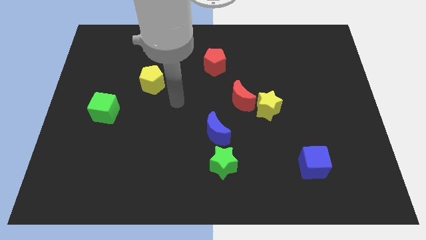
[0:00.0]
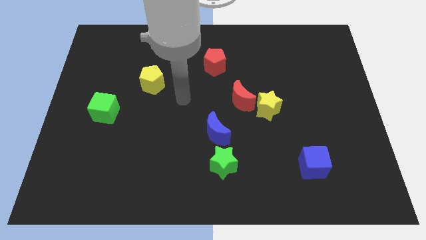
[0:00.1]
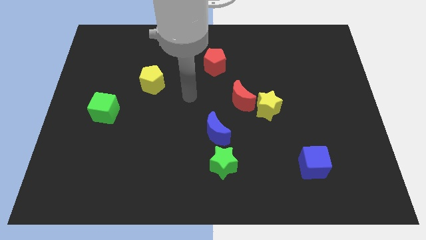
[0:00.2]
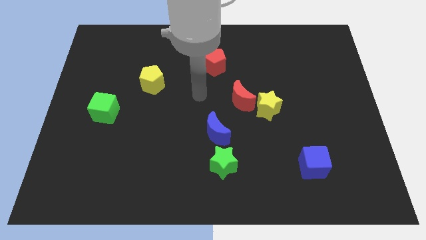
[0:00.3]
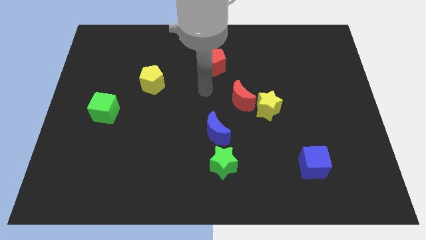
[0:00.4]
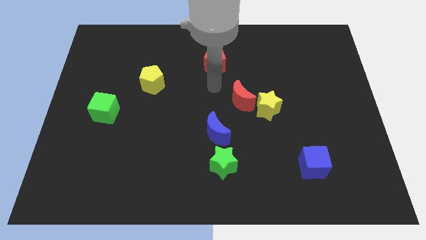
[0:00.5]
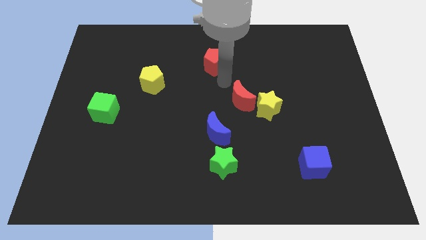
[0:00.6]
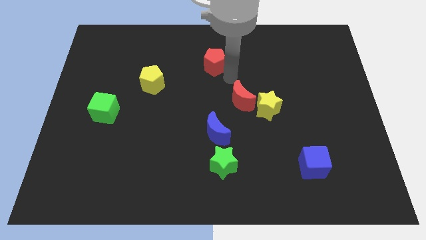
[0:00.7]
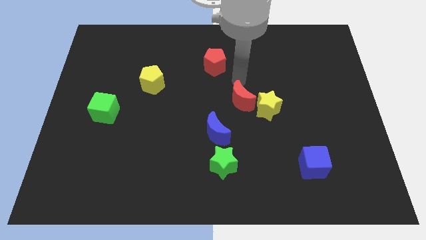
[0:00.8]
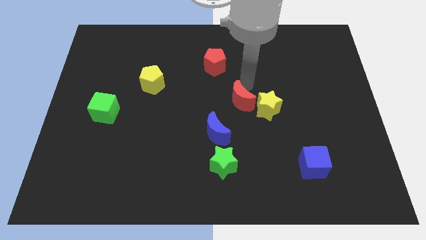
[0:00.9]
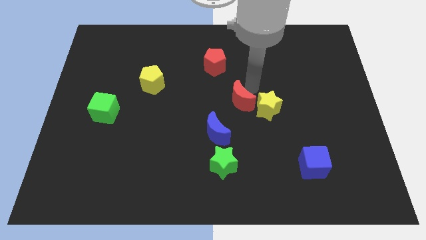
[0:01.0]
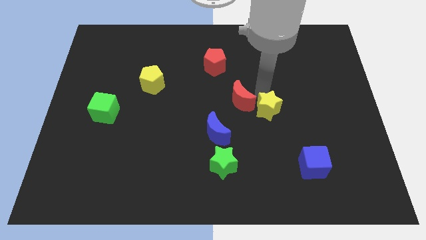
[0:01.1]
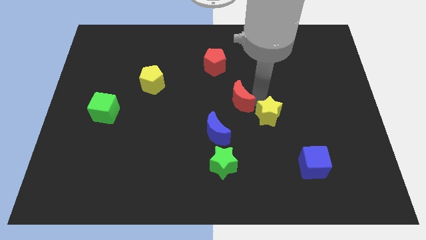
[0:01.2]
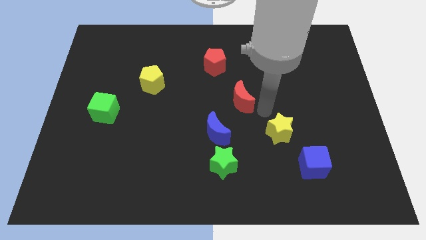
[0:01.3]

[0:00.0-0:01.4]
pull the red moon apart from the yellow star

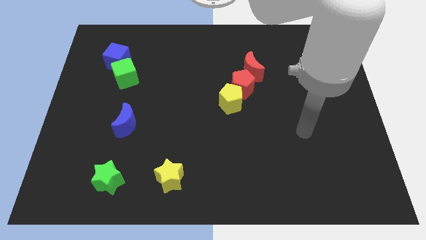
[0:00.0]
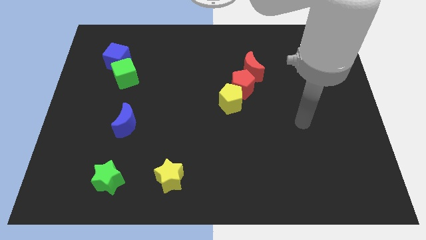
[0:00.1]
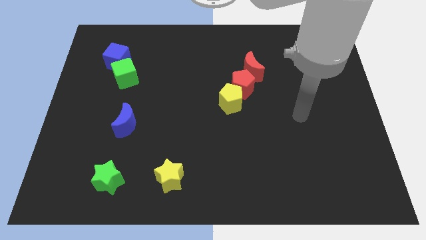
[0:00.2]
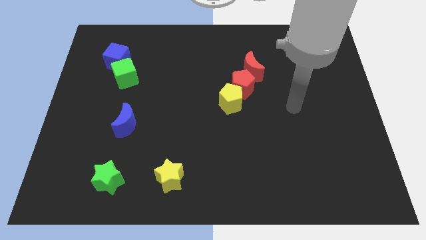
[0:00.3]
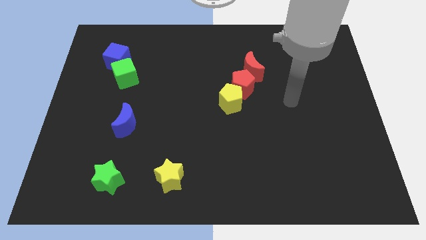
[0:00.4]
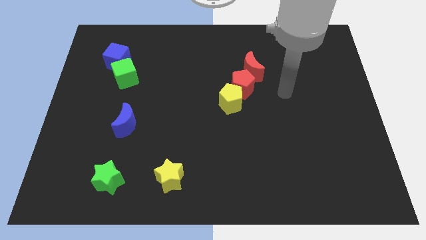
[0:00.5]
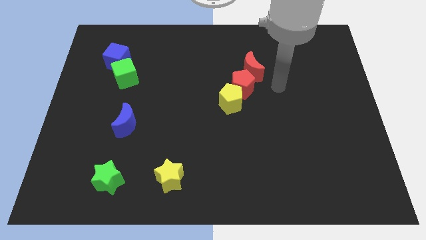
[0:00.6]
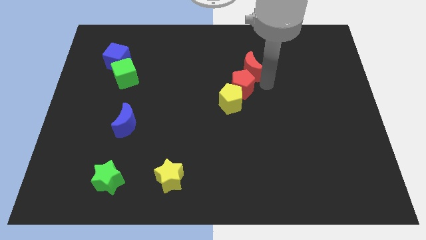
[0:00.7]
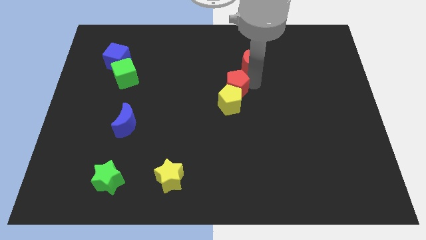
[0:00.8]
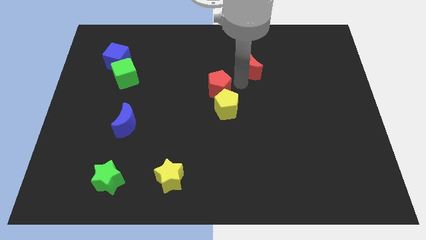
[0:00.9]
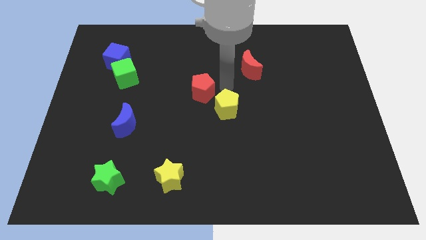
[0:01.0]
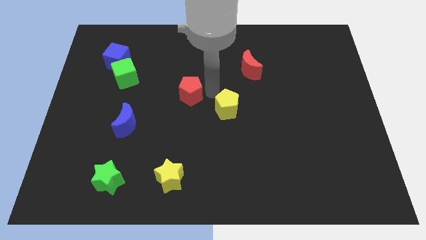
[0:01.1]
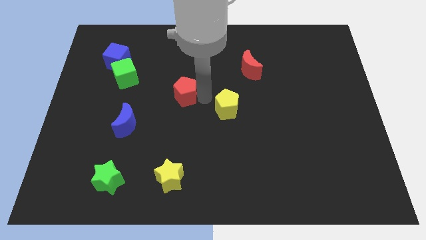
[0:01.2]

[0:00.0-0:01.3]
pull the yellow pentagon apart from the red pentagon

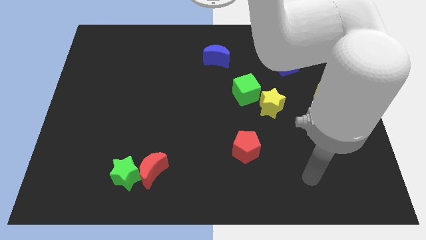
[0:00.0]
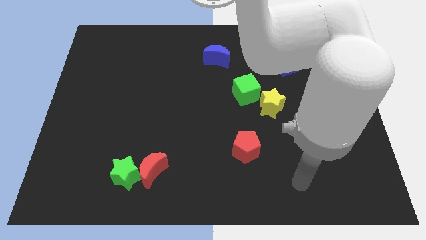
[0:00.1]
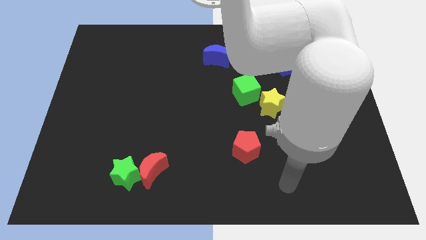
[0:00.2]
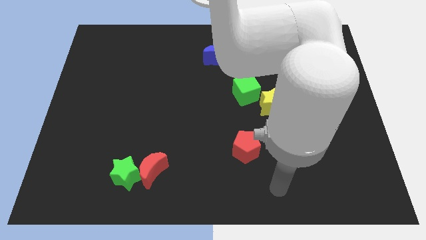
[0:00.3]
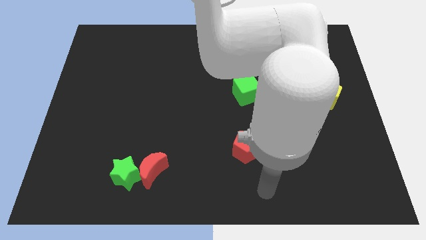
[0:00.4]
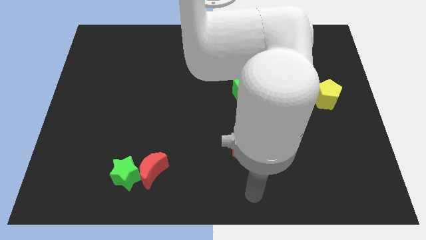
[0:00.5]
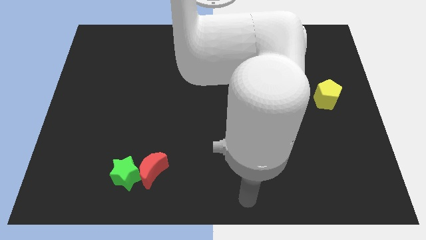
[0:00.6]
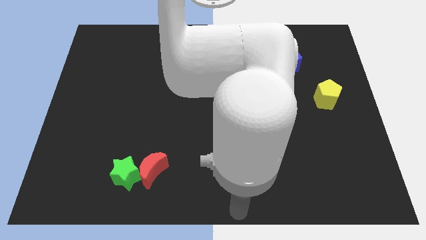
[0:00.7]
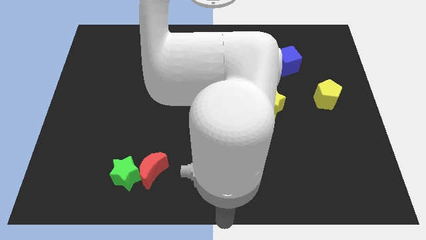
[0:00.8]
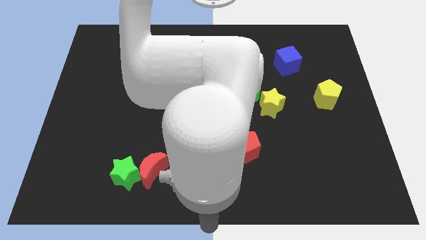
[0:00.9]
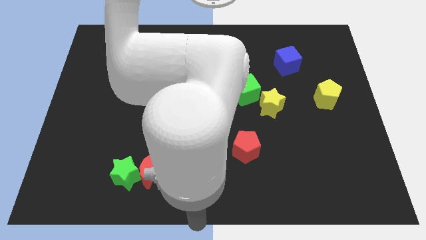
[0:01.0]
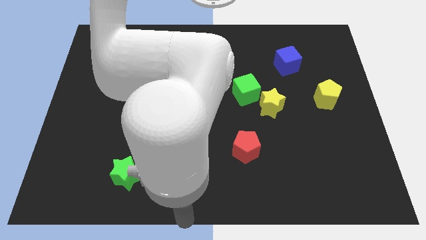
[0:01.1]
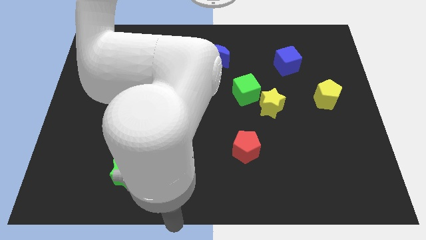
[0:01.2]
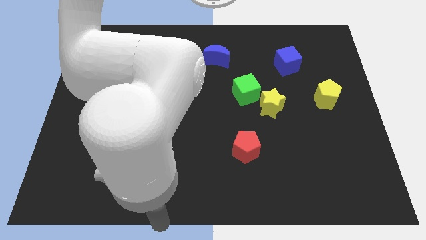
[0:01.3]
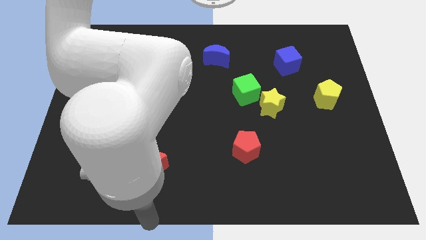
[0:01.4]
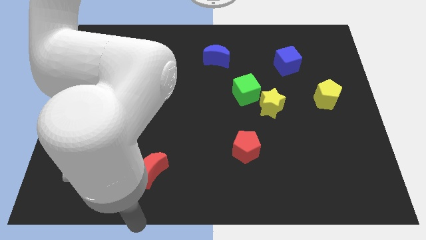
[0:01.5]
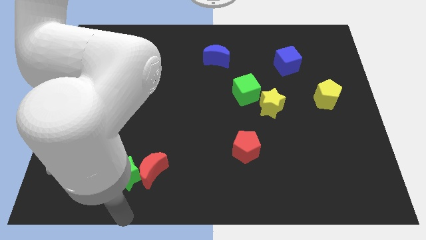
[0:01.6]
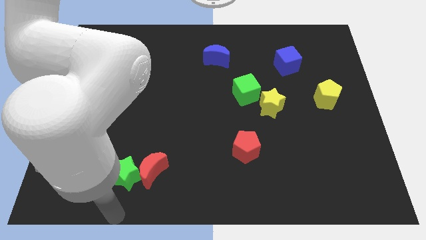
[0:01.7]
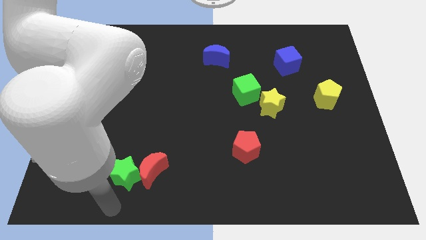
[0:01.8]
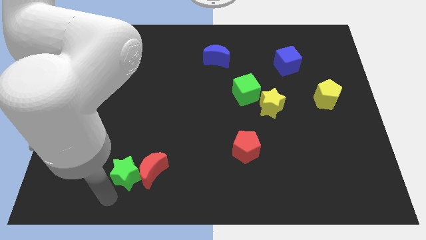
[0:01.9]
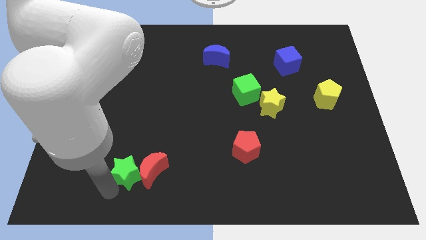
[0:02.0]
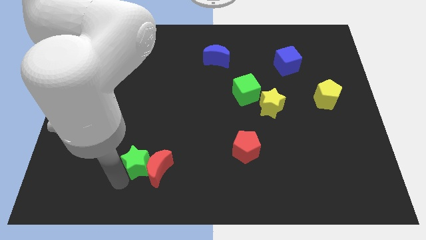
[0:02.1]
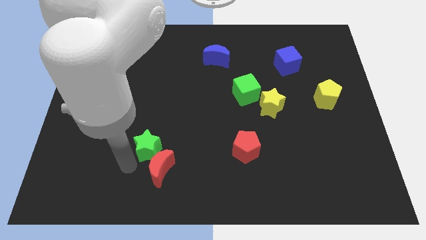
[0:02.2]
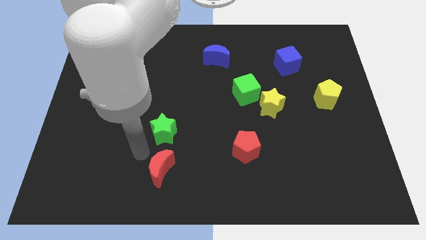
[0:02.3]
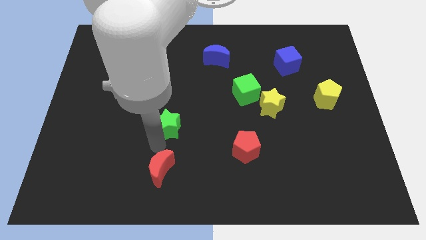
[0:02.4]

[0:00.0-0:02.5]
separate the red moon from the green star

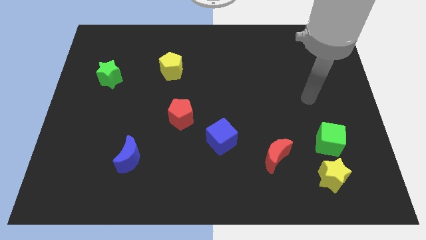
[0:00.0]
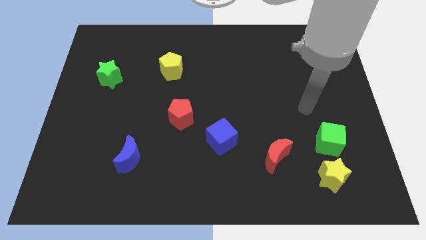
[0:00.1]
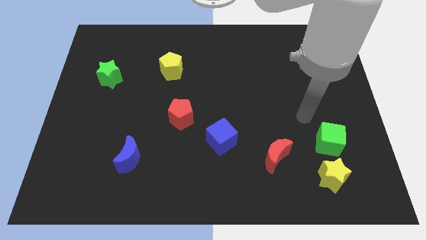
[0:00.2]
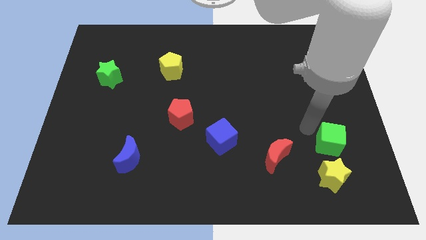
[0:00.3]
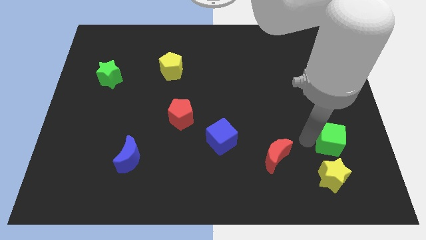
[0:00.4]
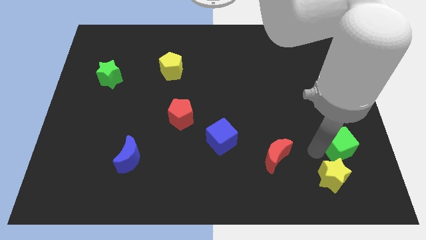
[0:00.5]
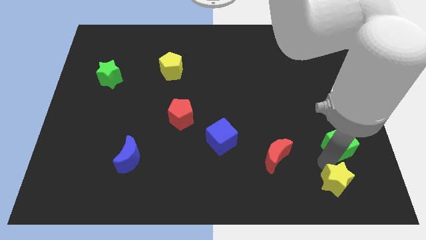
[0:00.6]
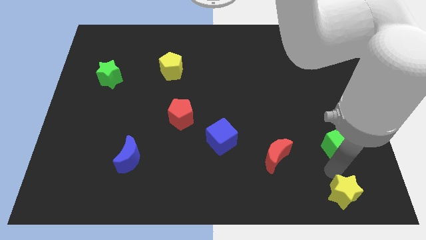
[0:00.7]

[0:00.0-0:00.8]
pull the green cube apart from the yellow star

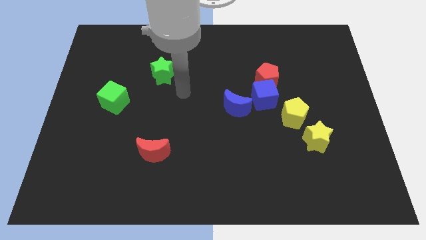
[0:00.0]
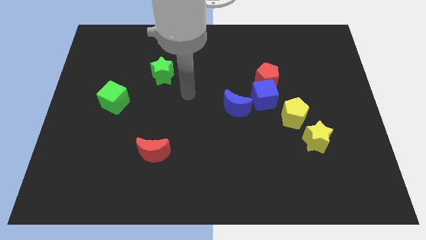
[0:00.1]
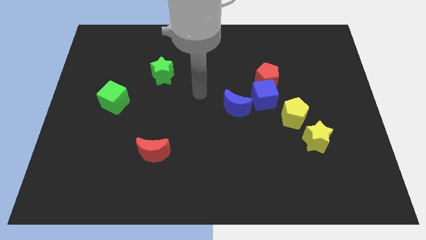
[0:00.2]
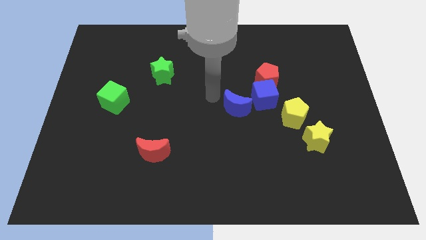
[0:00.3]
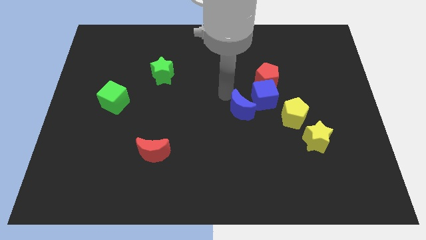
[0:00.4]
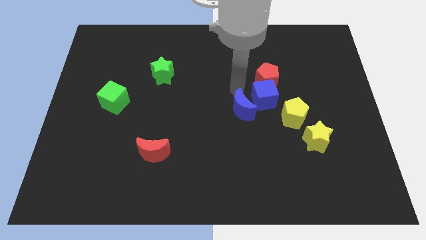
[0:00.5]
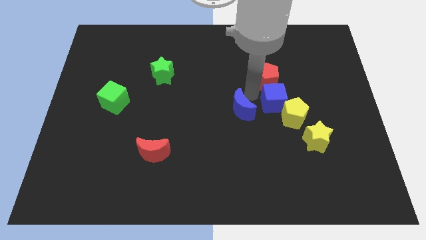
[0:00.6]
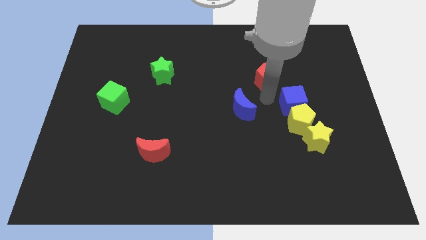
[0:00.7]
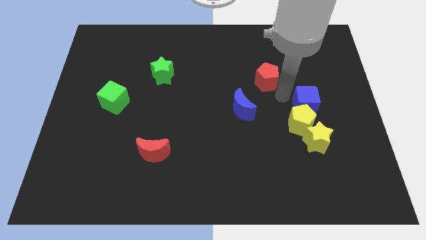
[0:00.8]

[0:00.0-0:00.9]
pull the red pentagon apart from the blue cube

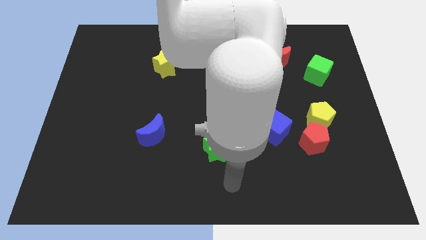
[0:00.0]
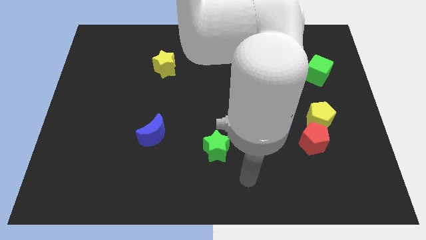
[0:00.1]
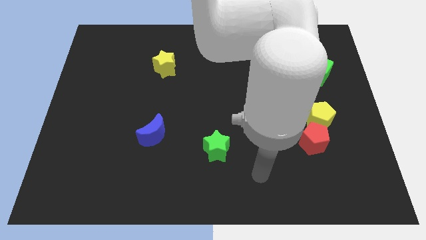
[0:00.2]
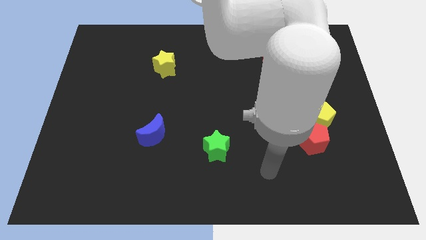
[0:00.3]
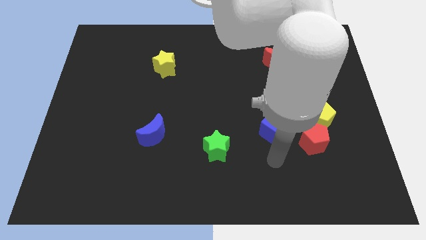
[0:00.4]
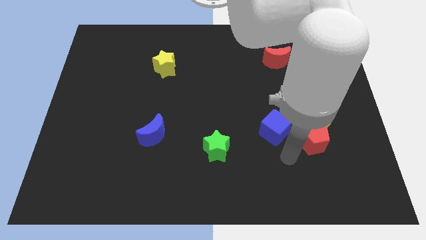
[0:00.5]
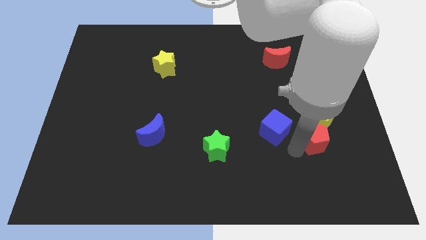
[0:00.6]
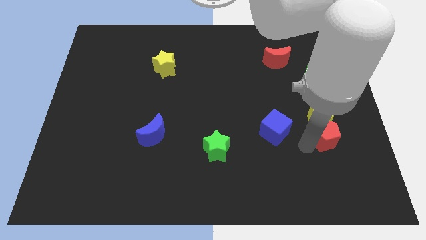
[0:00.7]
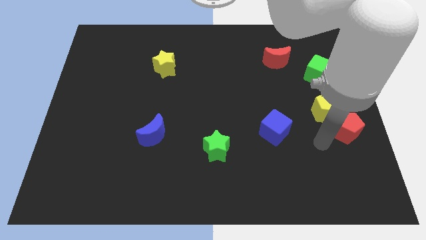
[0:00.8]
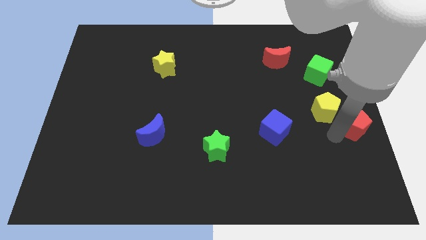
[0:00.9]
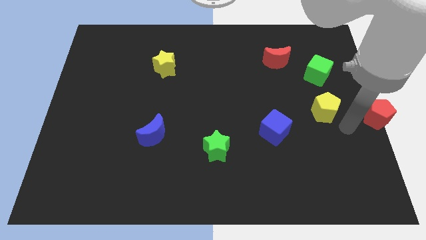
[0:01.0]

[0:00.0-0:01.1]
separate the yellow pentagon from the red pentagon

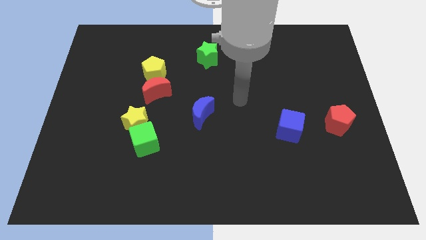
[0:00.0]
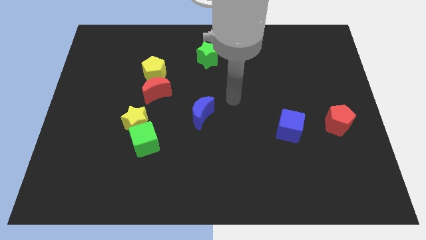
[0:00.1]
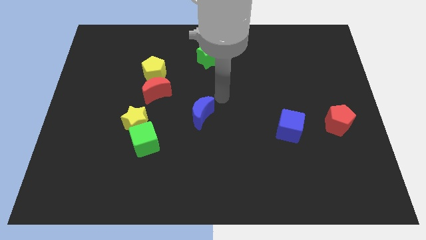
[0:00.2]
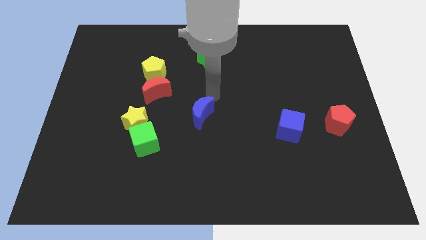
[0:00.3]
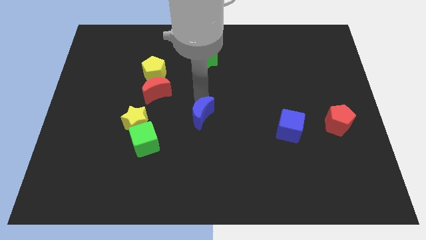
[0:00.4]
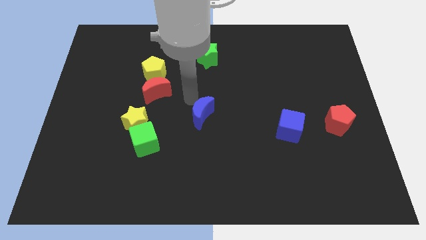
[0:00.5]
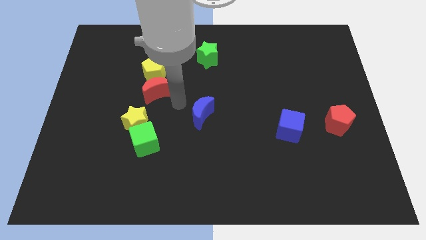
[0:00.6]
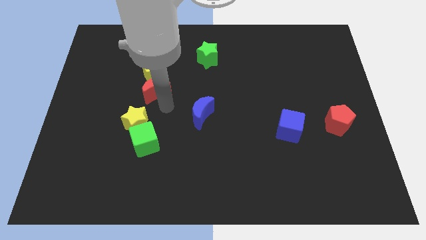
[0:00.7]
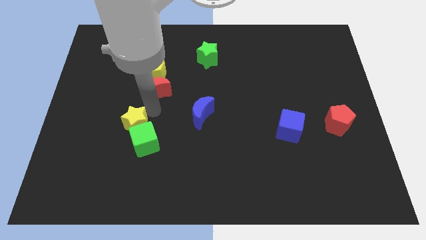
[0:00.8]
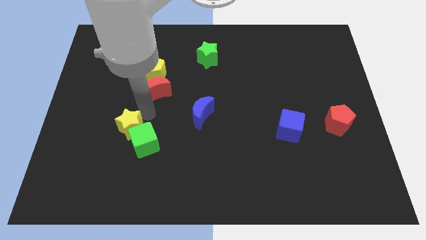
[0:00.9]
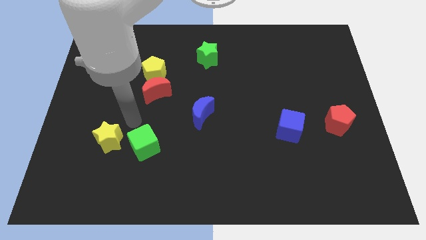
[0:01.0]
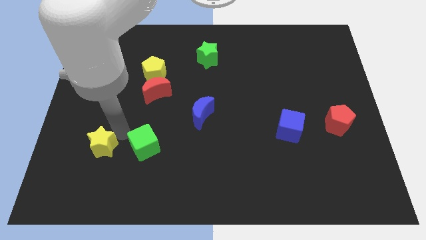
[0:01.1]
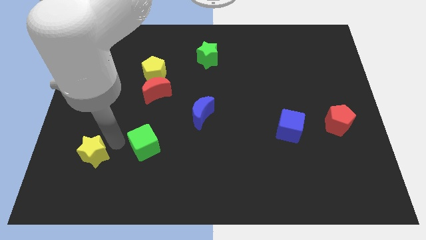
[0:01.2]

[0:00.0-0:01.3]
move the green cube away from the yellow star

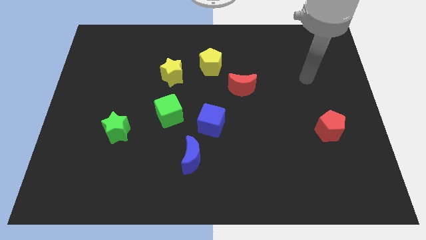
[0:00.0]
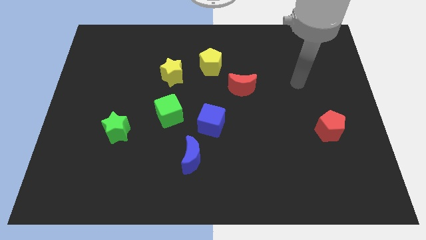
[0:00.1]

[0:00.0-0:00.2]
separate the blue moon from the blue cube
